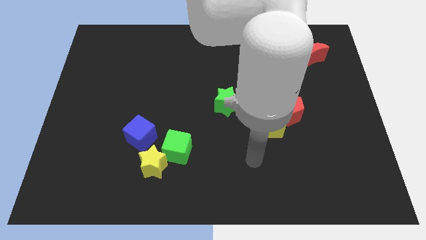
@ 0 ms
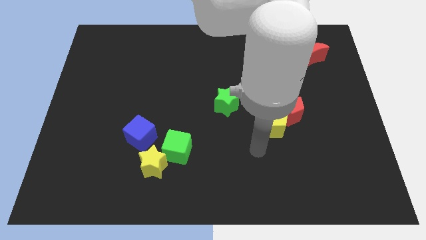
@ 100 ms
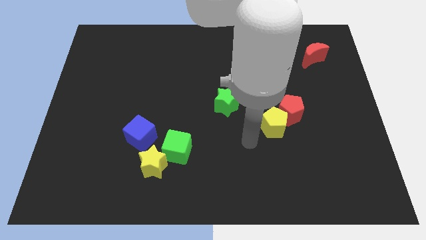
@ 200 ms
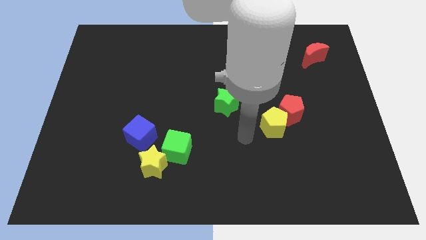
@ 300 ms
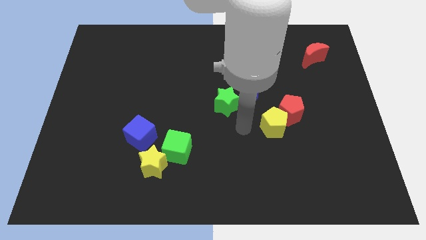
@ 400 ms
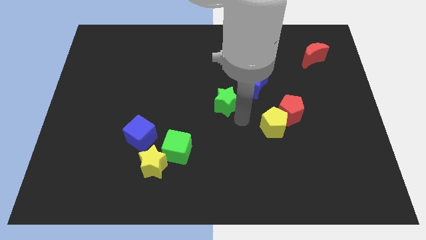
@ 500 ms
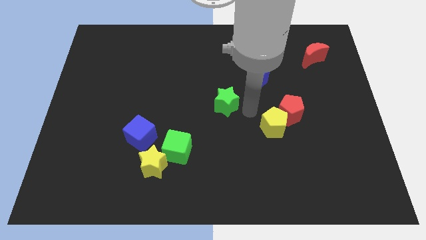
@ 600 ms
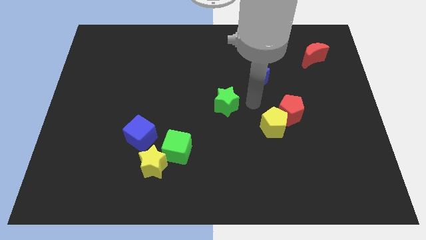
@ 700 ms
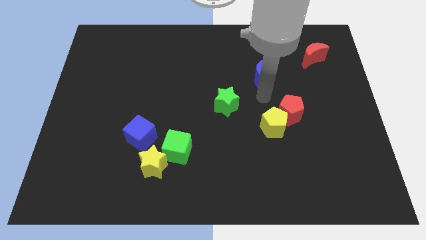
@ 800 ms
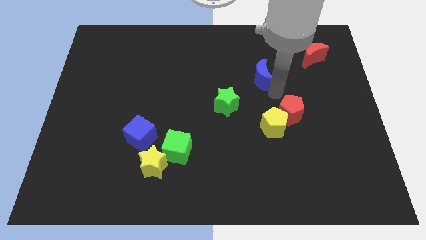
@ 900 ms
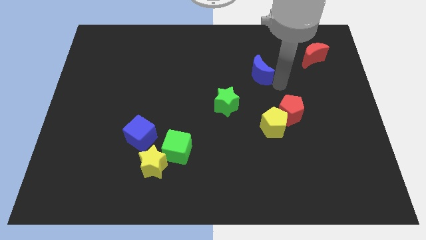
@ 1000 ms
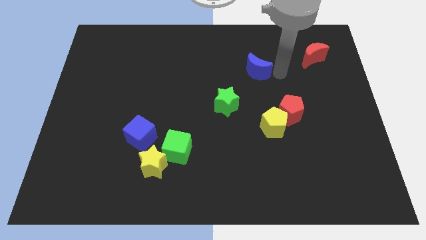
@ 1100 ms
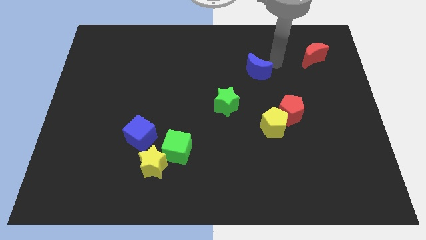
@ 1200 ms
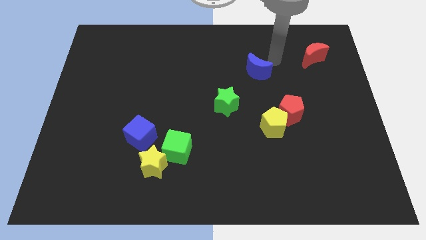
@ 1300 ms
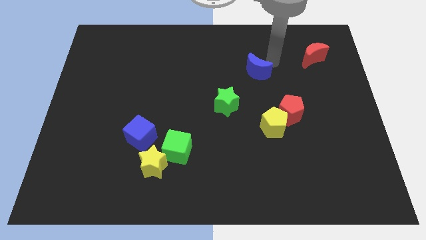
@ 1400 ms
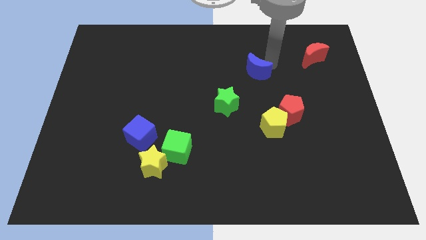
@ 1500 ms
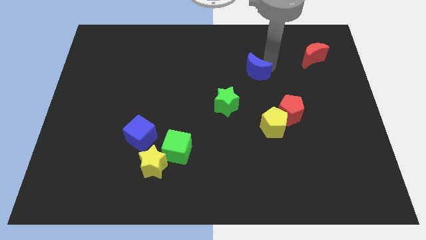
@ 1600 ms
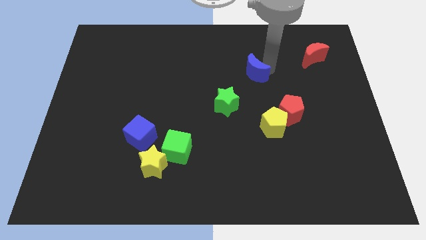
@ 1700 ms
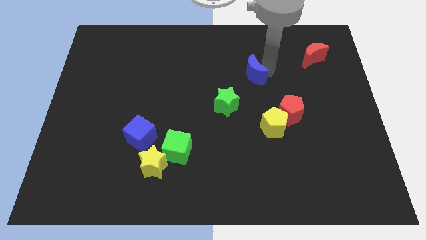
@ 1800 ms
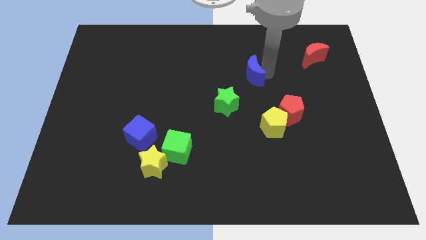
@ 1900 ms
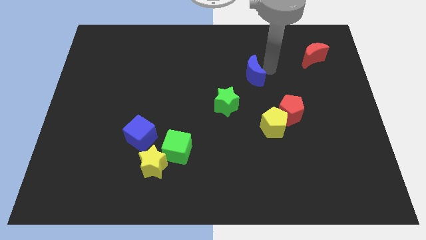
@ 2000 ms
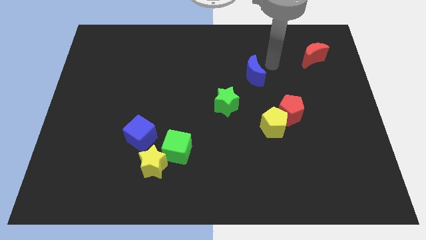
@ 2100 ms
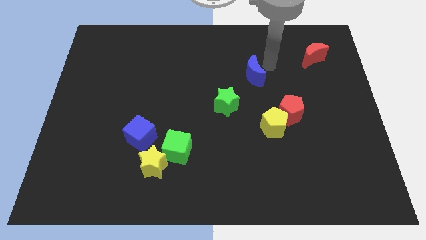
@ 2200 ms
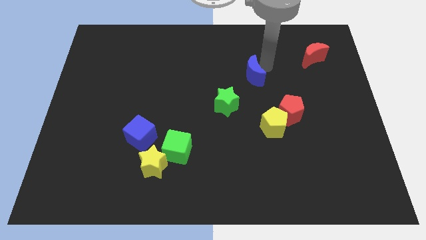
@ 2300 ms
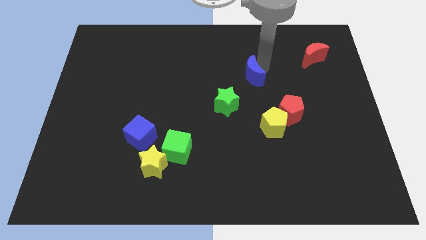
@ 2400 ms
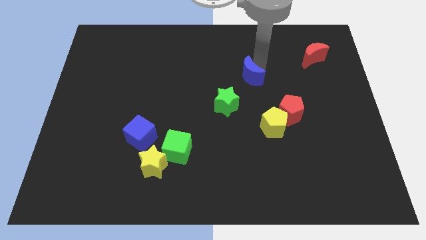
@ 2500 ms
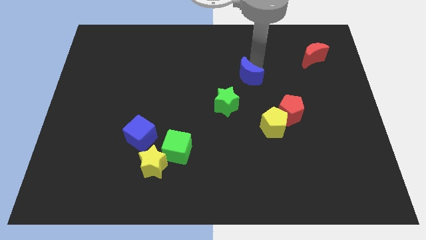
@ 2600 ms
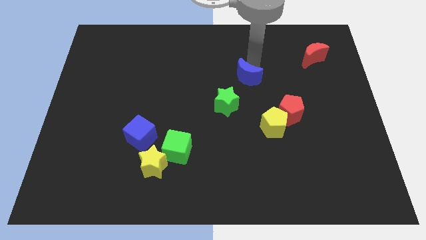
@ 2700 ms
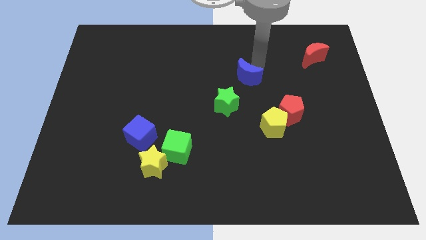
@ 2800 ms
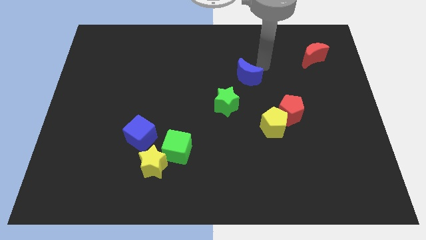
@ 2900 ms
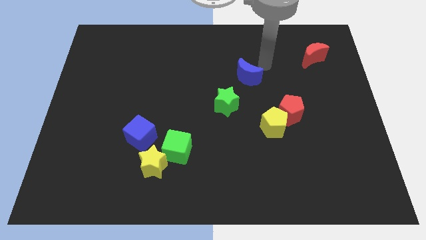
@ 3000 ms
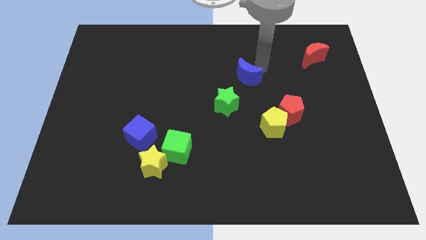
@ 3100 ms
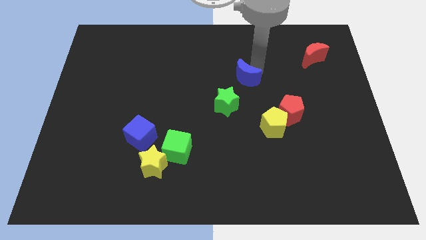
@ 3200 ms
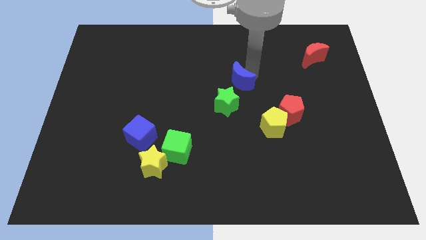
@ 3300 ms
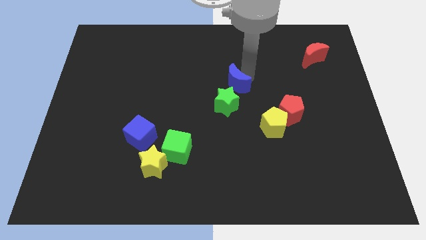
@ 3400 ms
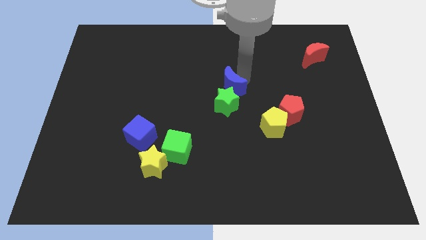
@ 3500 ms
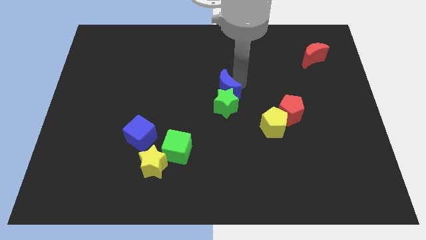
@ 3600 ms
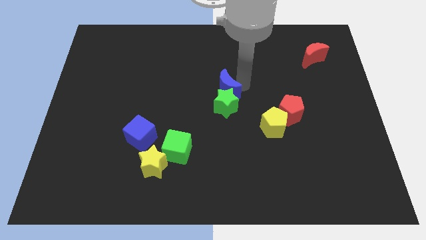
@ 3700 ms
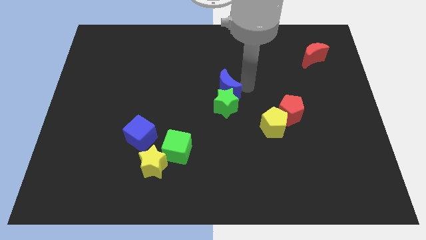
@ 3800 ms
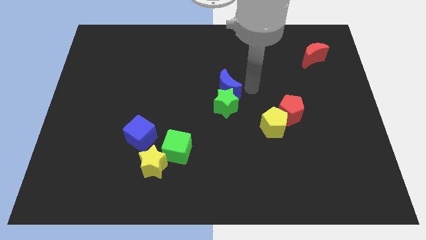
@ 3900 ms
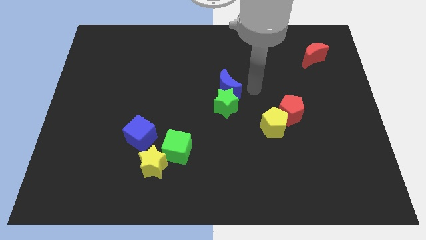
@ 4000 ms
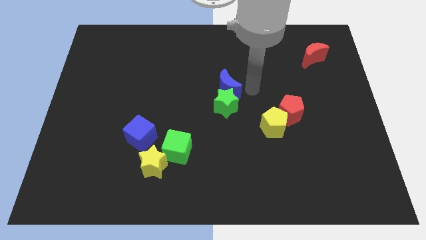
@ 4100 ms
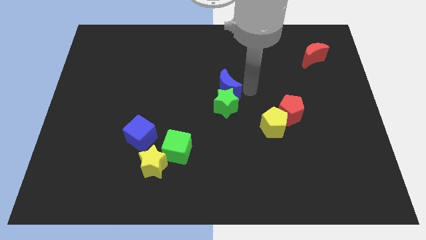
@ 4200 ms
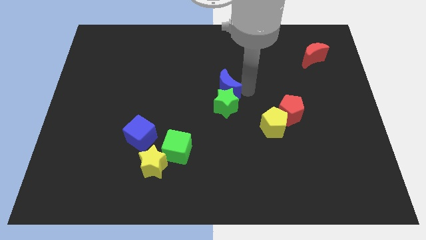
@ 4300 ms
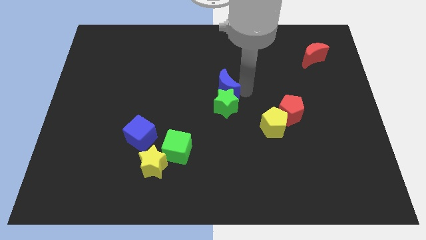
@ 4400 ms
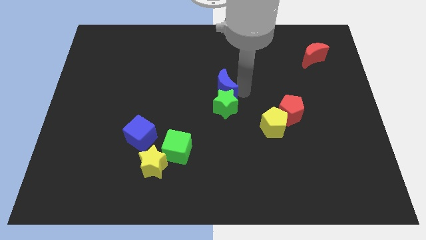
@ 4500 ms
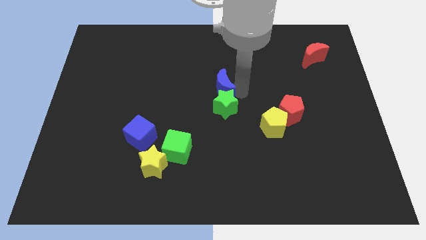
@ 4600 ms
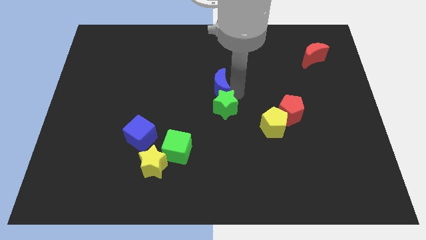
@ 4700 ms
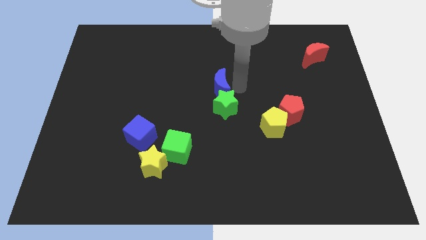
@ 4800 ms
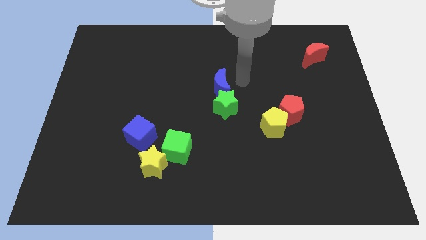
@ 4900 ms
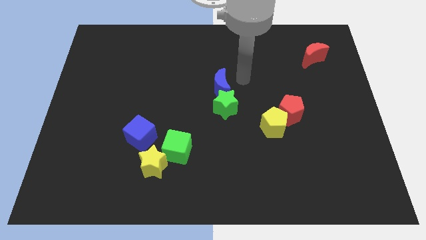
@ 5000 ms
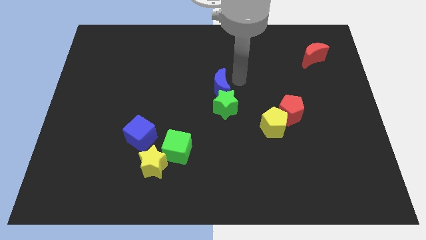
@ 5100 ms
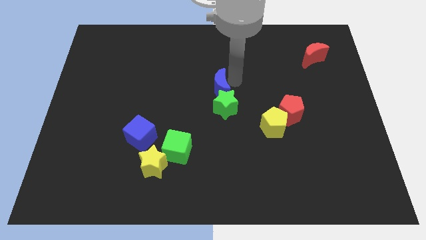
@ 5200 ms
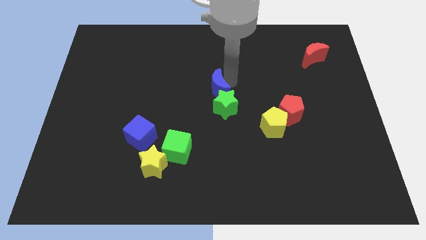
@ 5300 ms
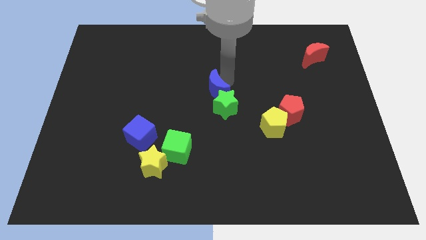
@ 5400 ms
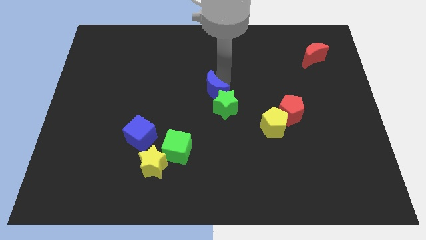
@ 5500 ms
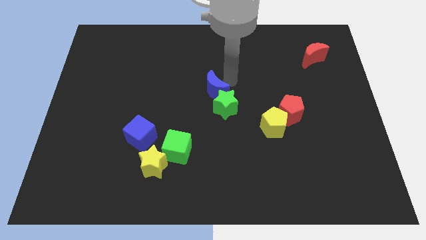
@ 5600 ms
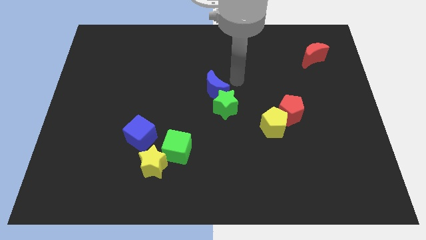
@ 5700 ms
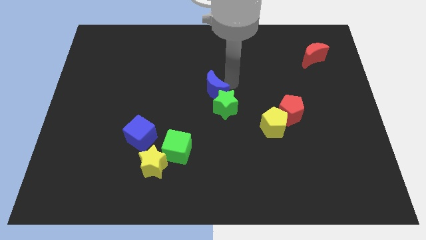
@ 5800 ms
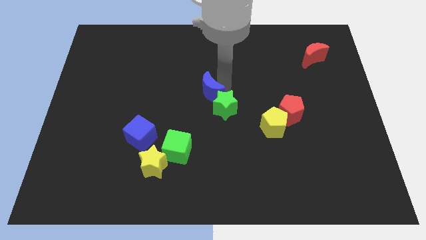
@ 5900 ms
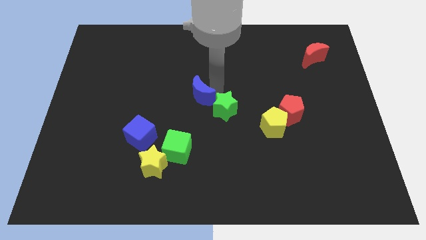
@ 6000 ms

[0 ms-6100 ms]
slide the blue moon just left of the green star

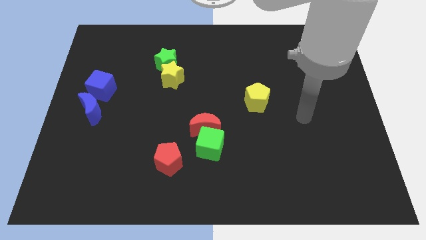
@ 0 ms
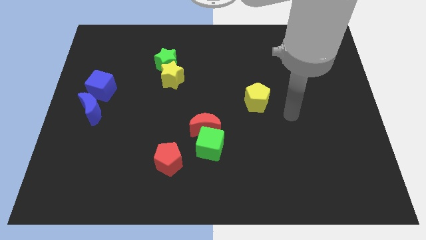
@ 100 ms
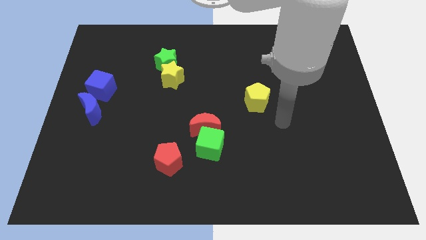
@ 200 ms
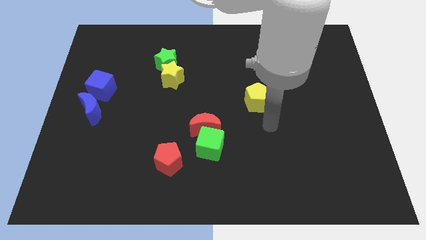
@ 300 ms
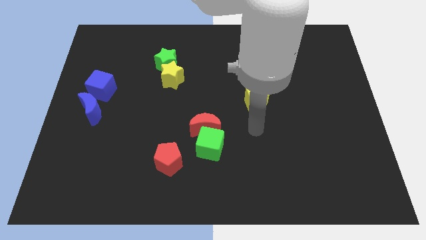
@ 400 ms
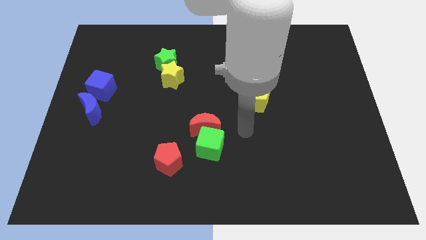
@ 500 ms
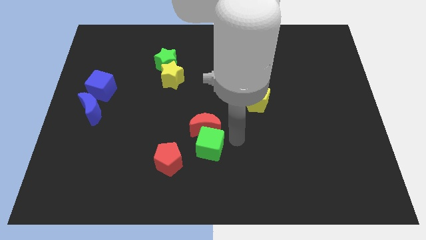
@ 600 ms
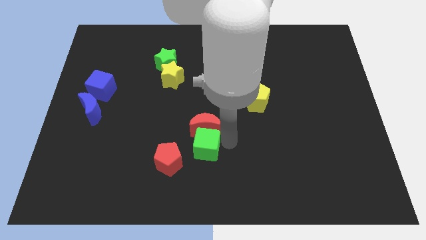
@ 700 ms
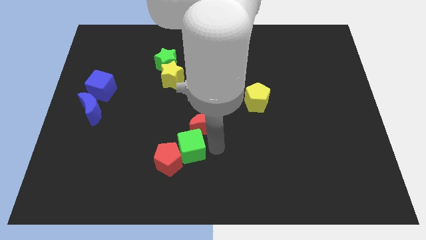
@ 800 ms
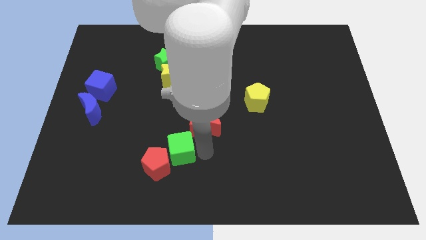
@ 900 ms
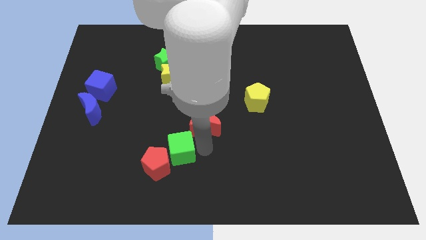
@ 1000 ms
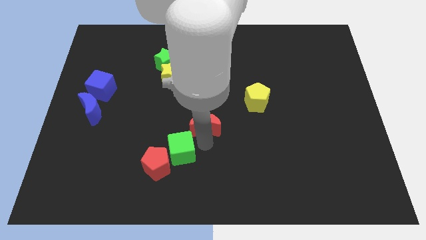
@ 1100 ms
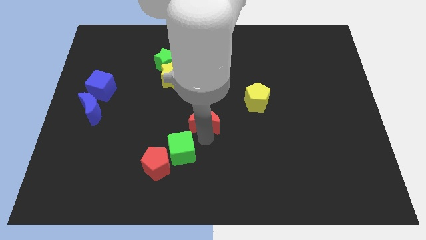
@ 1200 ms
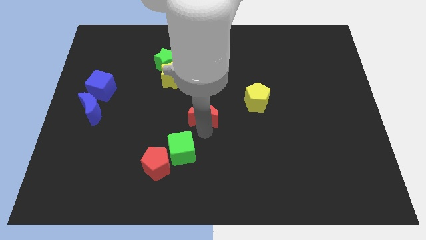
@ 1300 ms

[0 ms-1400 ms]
slide the red moon left of the yellow pentagon
